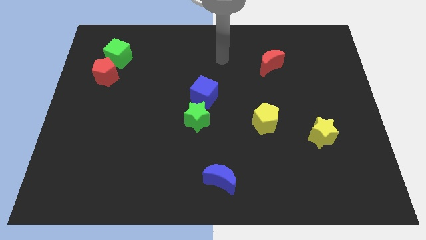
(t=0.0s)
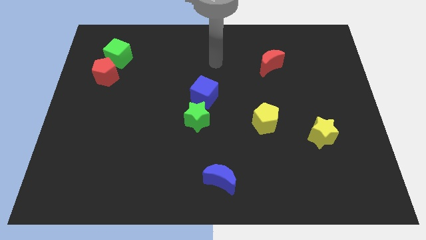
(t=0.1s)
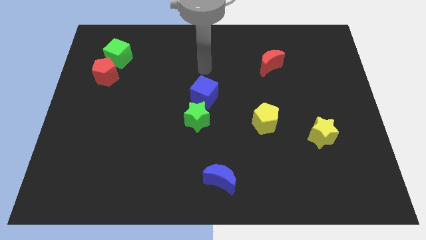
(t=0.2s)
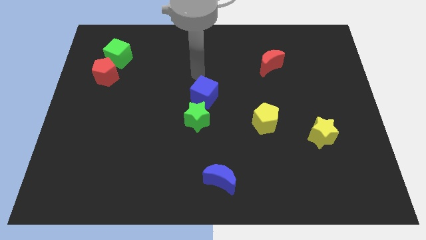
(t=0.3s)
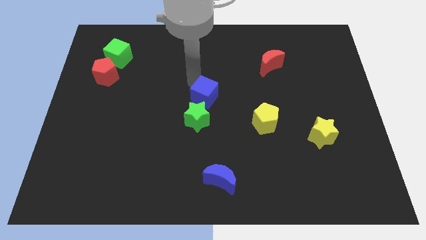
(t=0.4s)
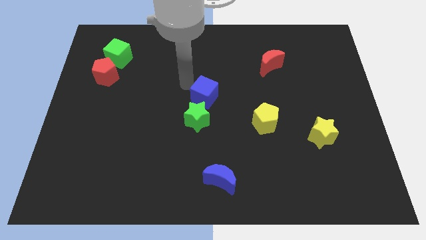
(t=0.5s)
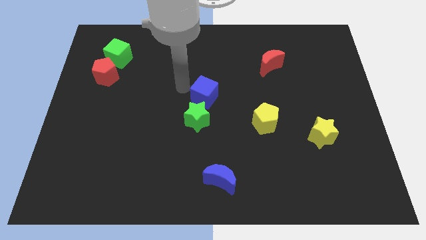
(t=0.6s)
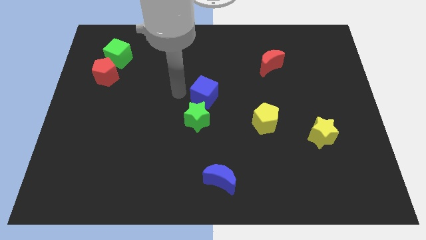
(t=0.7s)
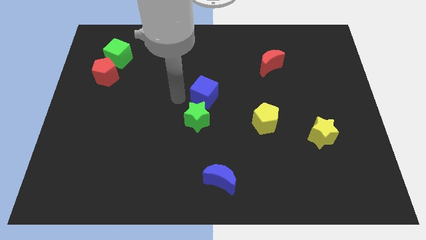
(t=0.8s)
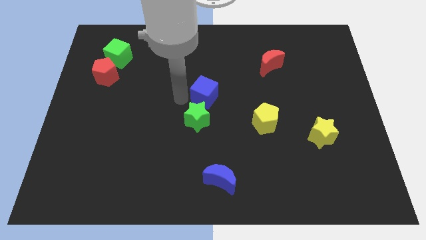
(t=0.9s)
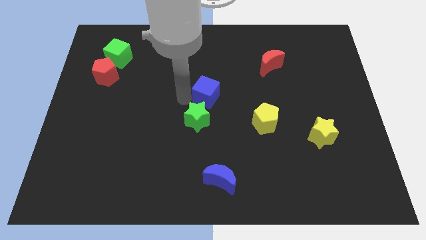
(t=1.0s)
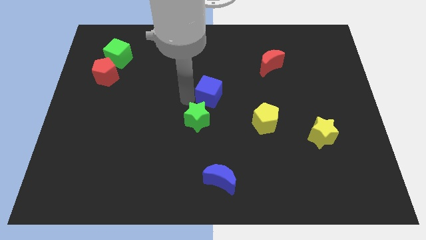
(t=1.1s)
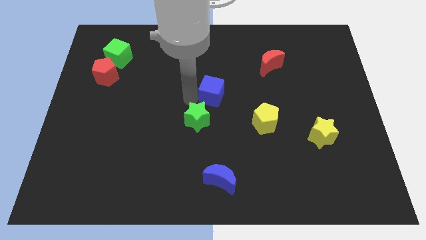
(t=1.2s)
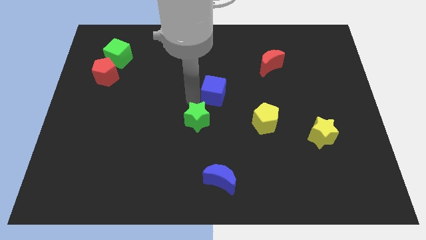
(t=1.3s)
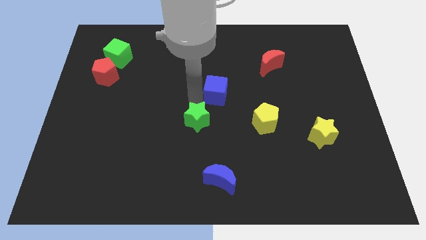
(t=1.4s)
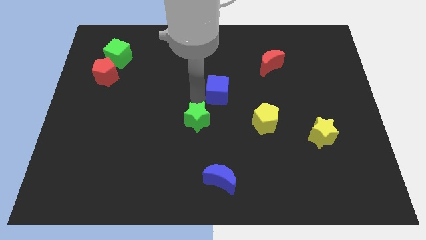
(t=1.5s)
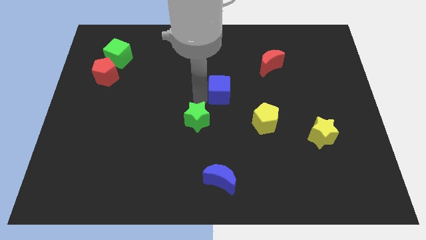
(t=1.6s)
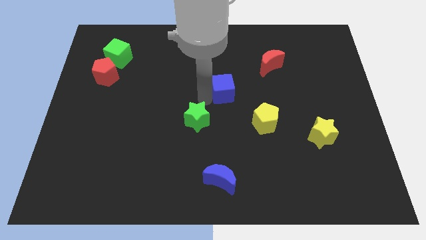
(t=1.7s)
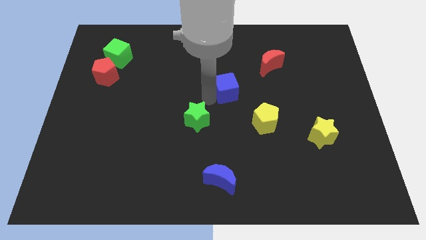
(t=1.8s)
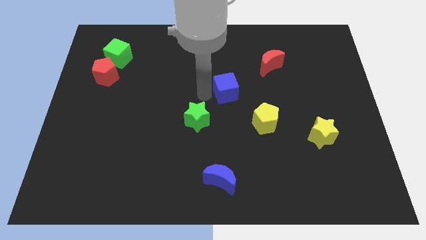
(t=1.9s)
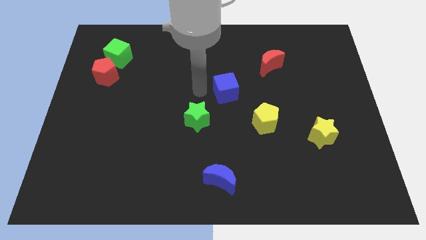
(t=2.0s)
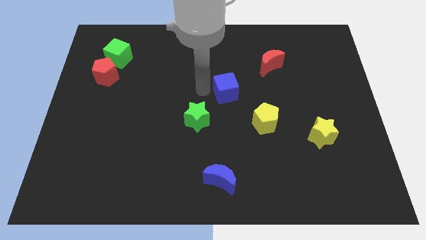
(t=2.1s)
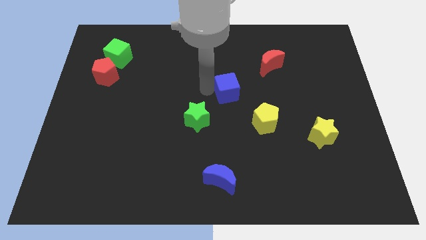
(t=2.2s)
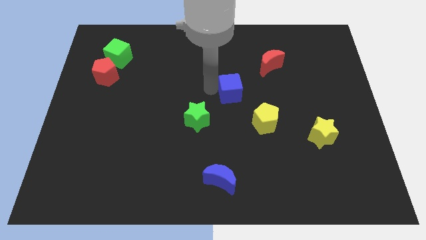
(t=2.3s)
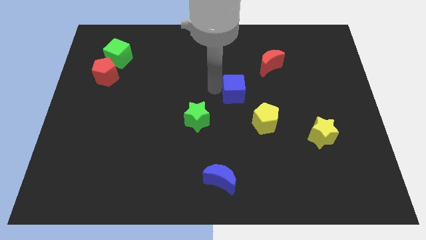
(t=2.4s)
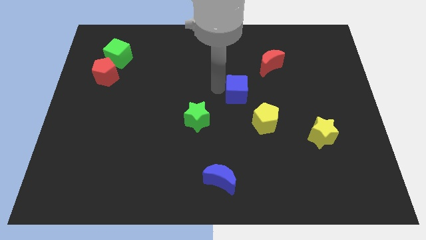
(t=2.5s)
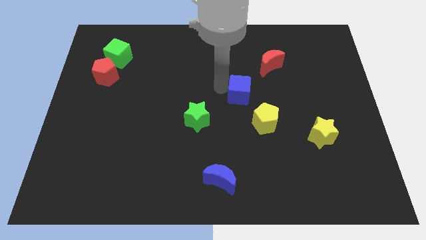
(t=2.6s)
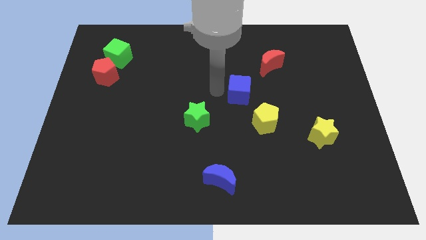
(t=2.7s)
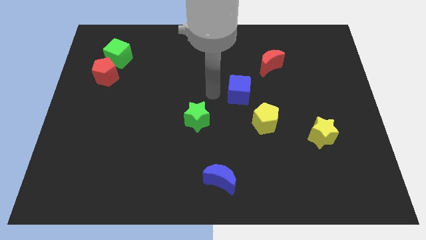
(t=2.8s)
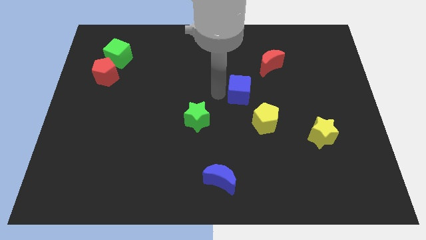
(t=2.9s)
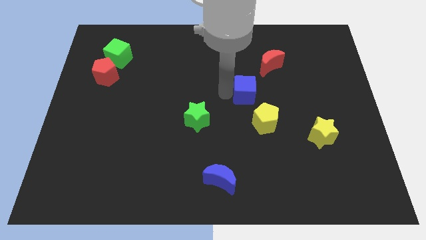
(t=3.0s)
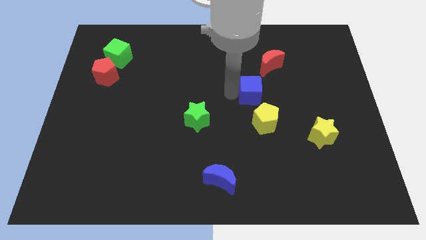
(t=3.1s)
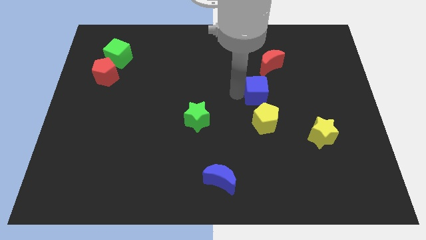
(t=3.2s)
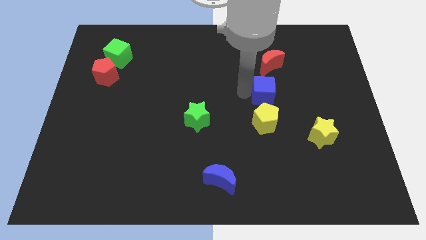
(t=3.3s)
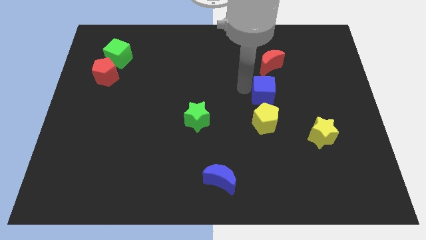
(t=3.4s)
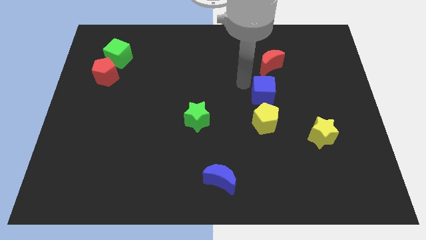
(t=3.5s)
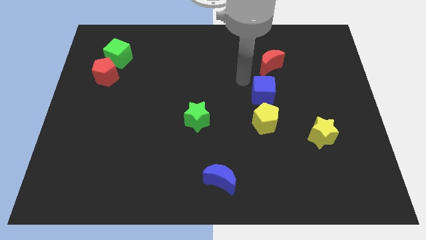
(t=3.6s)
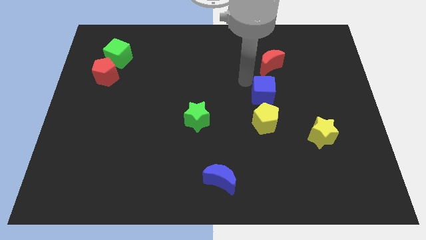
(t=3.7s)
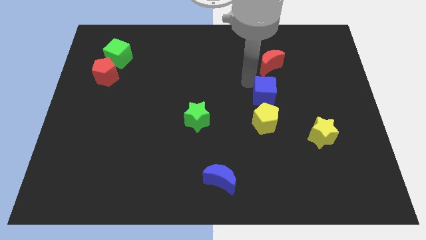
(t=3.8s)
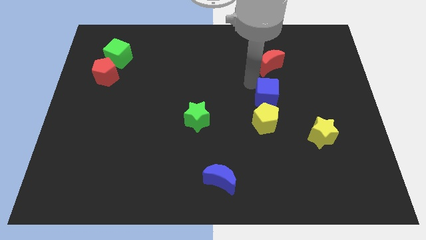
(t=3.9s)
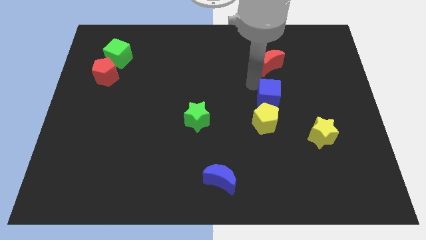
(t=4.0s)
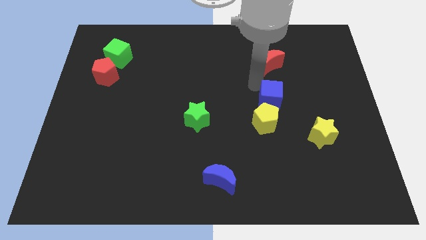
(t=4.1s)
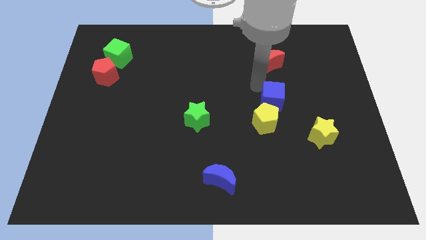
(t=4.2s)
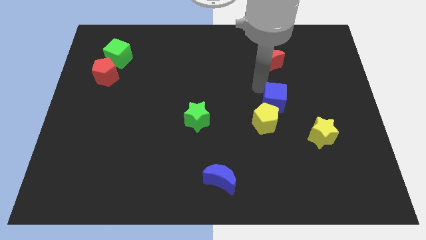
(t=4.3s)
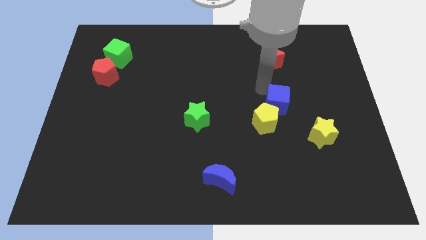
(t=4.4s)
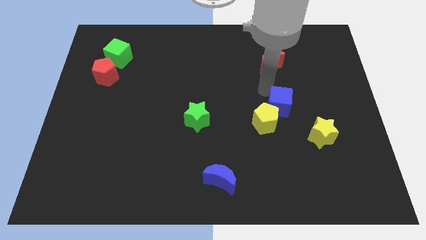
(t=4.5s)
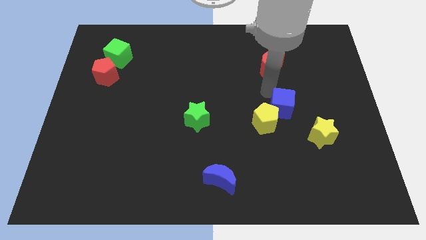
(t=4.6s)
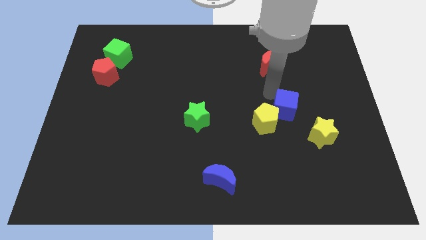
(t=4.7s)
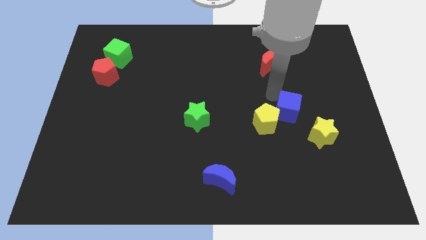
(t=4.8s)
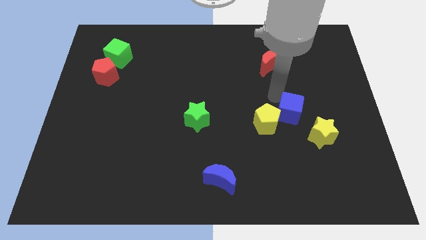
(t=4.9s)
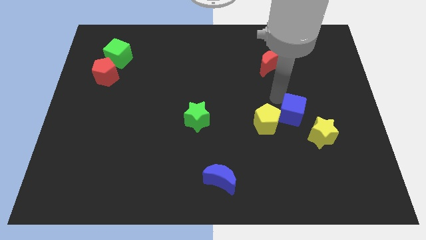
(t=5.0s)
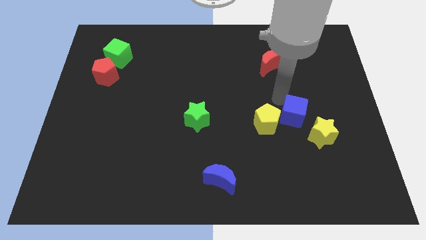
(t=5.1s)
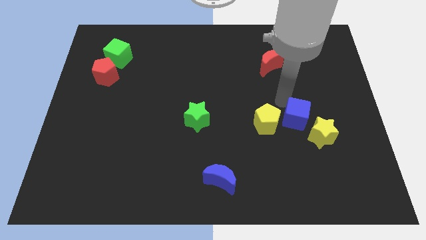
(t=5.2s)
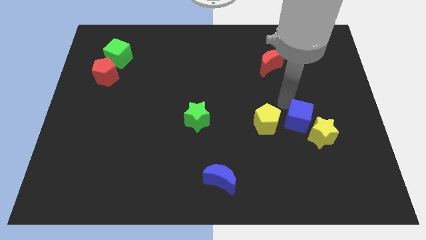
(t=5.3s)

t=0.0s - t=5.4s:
slide the blue cube close to the yellow star

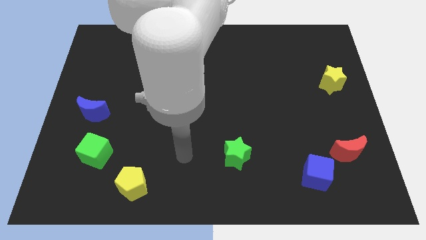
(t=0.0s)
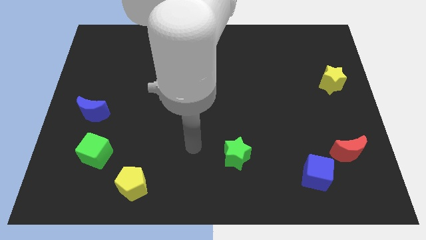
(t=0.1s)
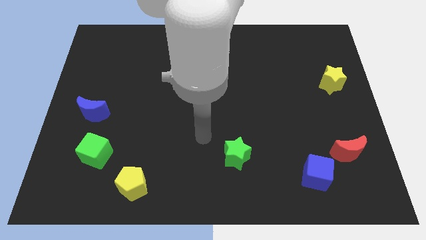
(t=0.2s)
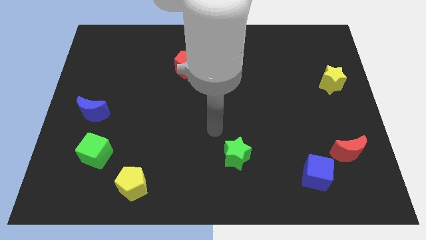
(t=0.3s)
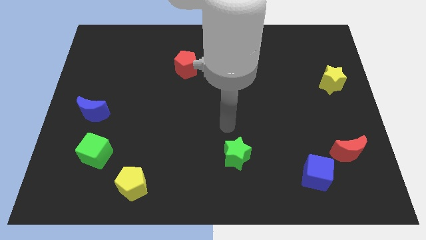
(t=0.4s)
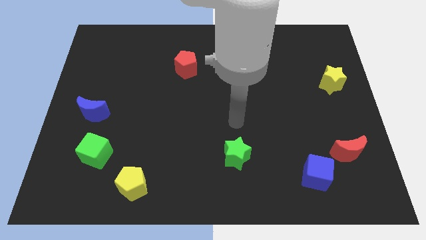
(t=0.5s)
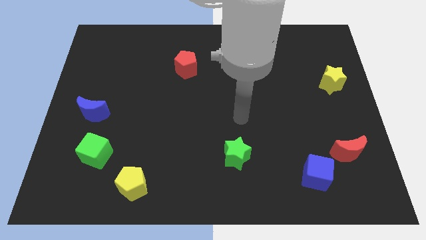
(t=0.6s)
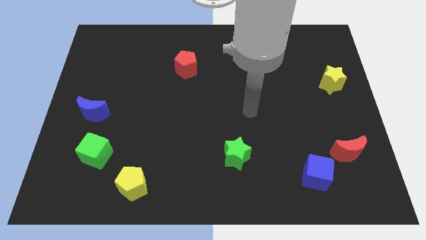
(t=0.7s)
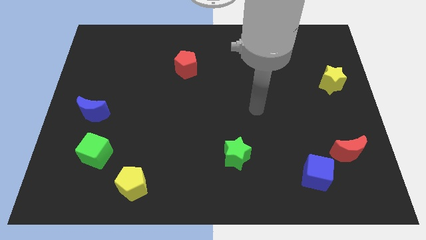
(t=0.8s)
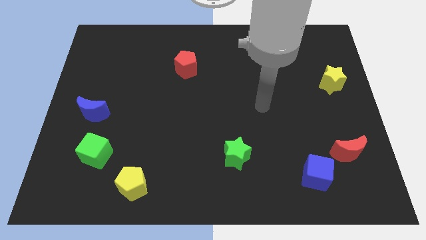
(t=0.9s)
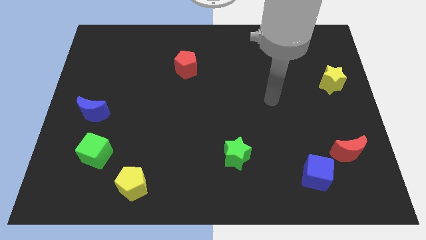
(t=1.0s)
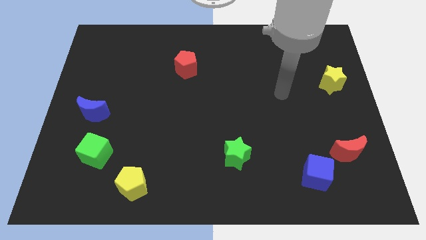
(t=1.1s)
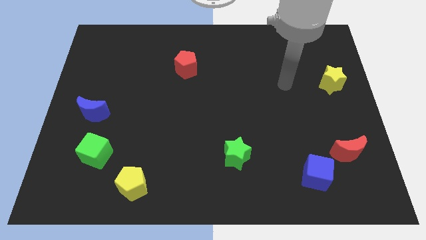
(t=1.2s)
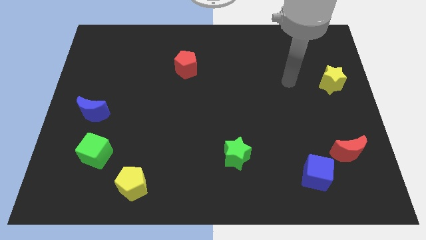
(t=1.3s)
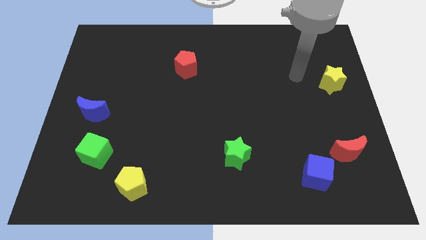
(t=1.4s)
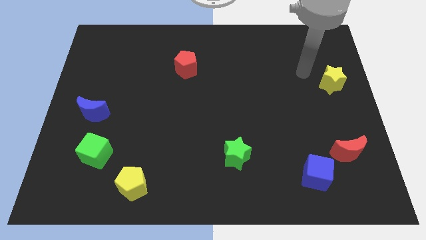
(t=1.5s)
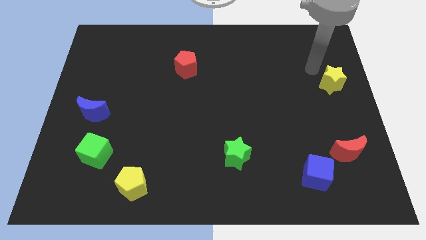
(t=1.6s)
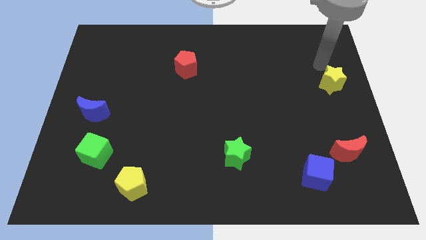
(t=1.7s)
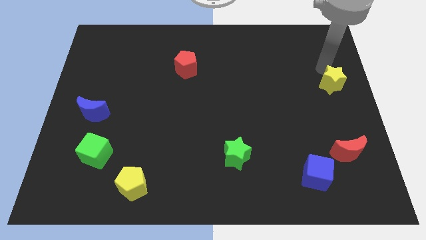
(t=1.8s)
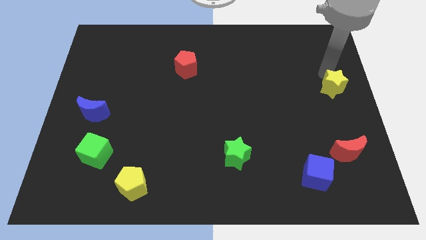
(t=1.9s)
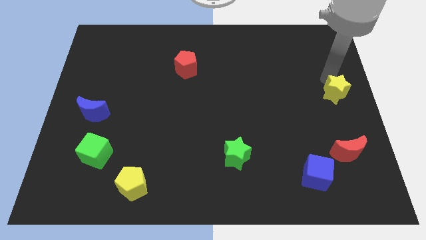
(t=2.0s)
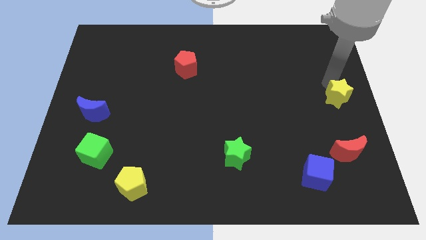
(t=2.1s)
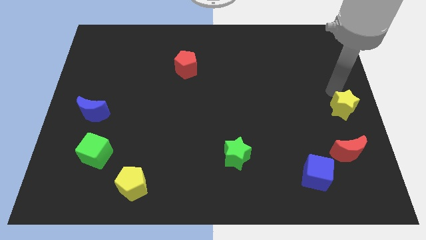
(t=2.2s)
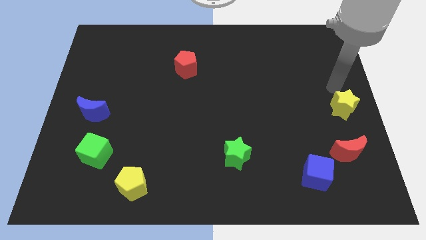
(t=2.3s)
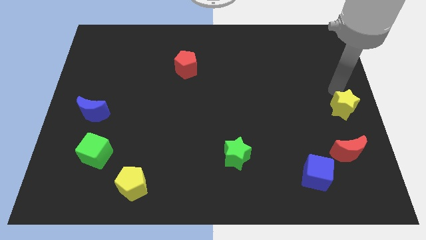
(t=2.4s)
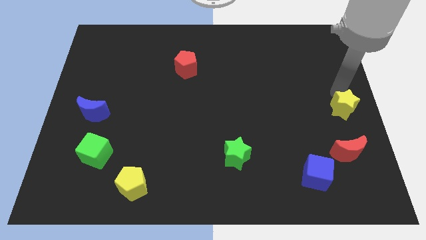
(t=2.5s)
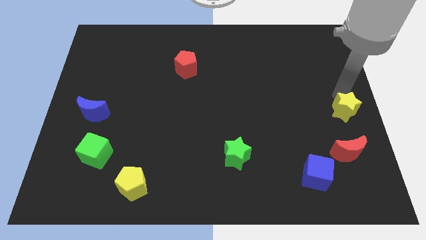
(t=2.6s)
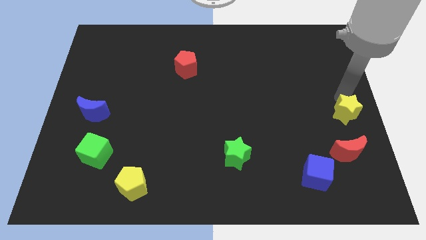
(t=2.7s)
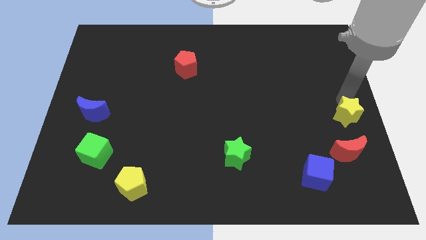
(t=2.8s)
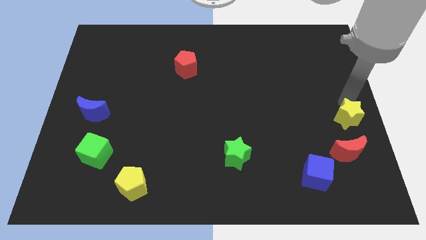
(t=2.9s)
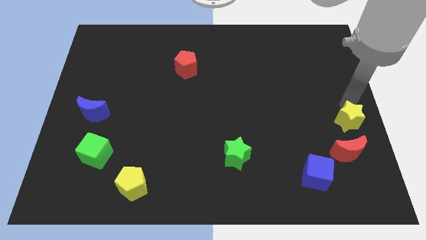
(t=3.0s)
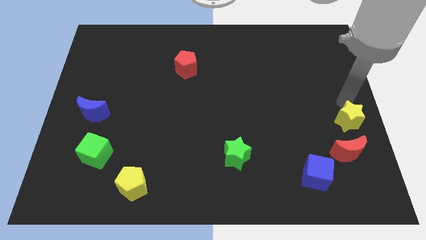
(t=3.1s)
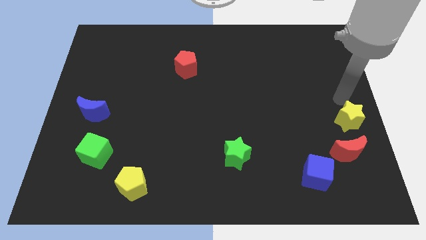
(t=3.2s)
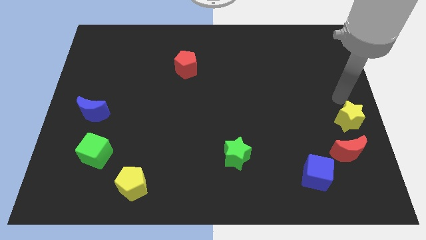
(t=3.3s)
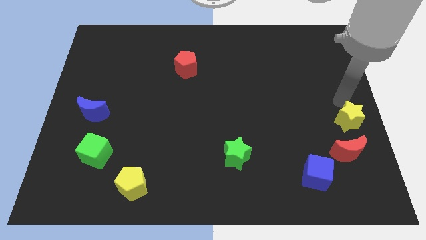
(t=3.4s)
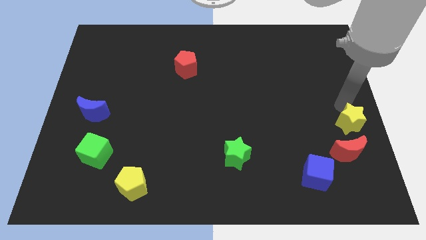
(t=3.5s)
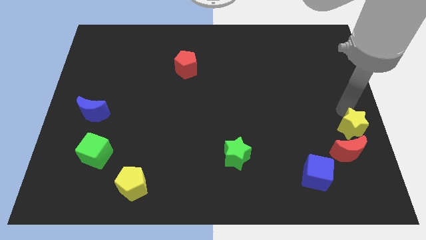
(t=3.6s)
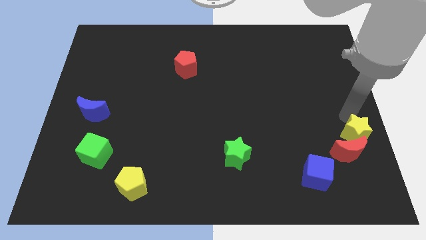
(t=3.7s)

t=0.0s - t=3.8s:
put the yellow star towards the red moon
